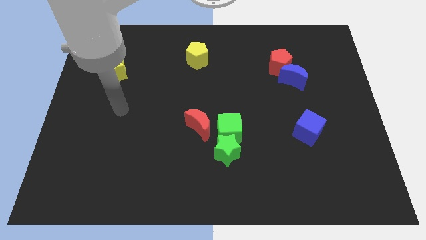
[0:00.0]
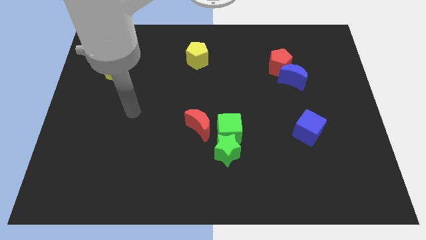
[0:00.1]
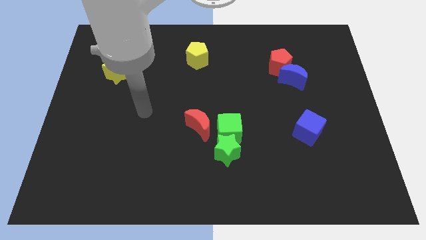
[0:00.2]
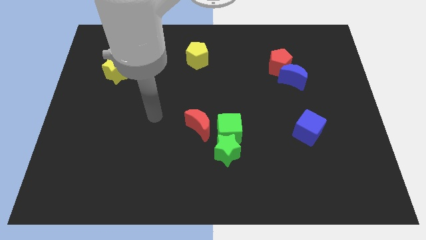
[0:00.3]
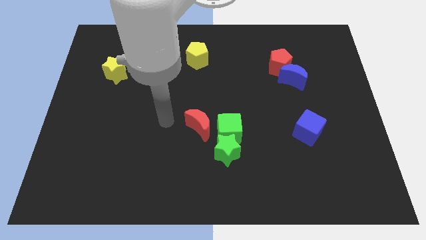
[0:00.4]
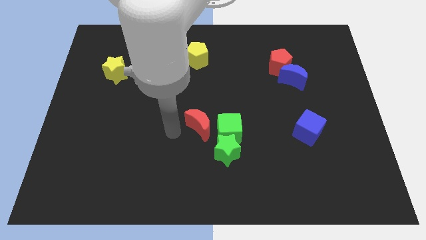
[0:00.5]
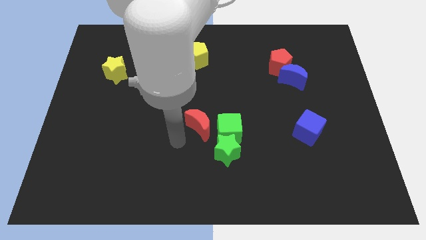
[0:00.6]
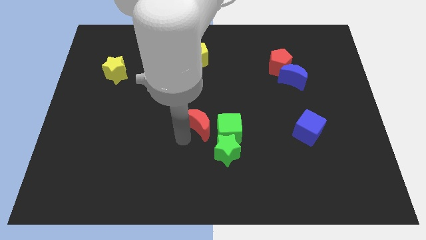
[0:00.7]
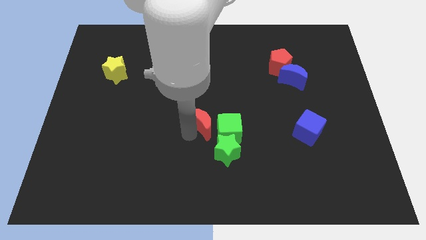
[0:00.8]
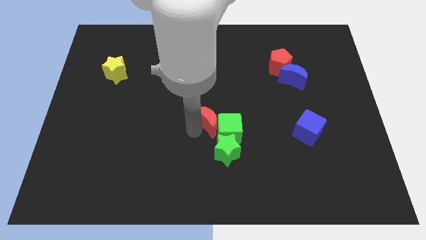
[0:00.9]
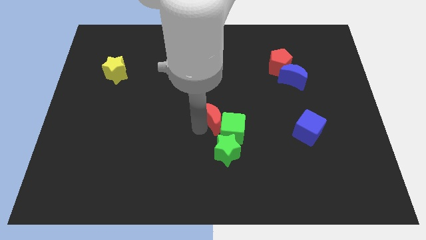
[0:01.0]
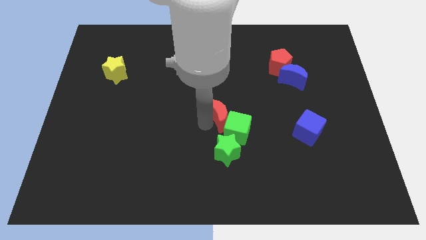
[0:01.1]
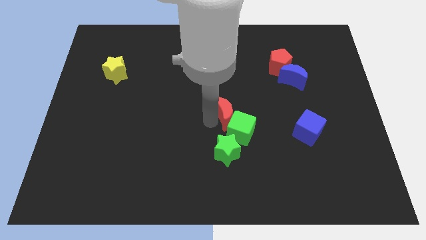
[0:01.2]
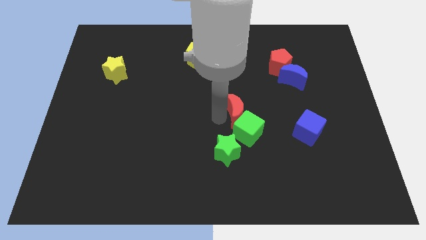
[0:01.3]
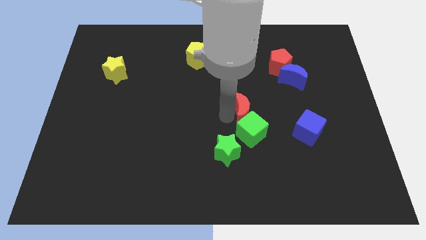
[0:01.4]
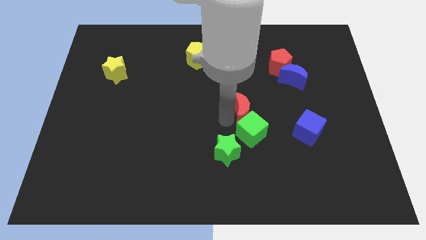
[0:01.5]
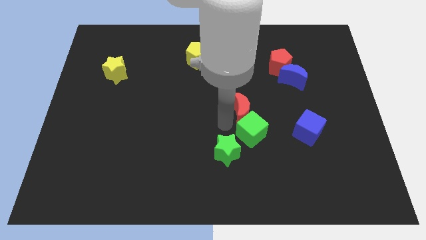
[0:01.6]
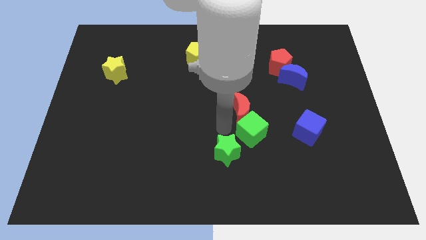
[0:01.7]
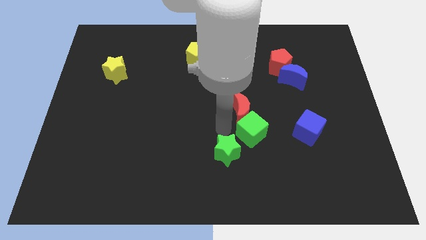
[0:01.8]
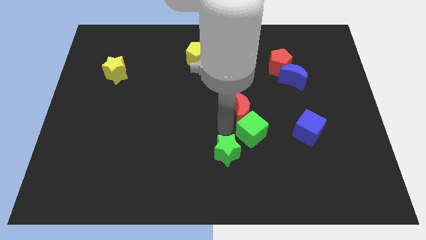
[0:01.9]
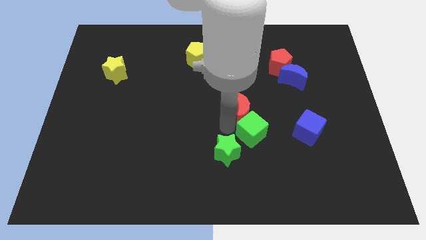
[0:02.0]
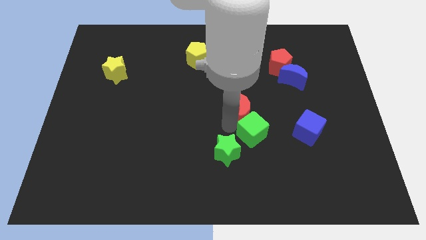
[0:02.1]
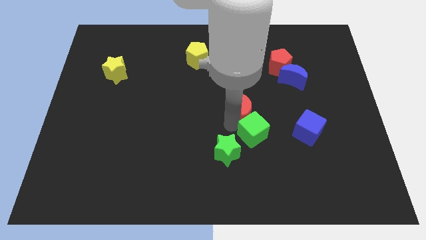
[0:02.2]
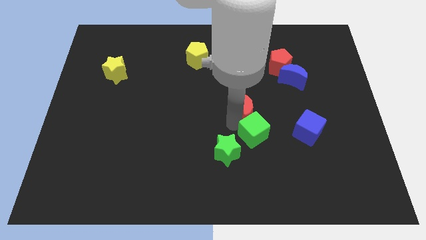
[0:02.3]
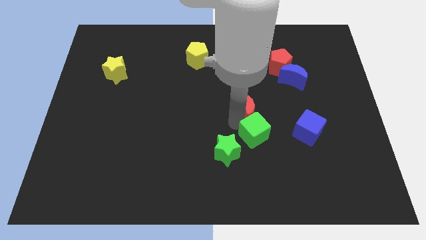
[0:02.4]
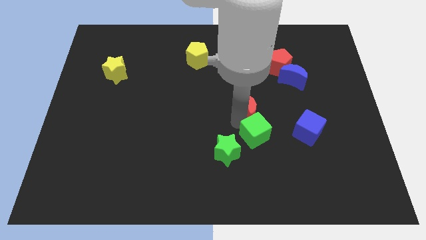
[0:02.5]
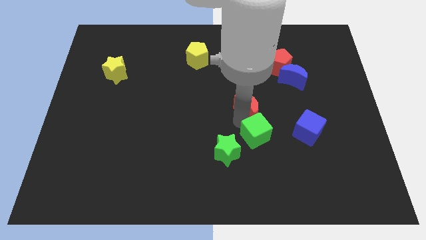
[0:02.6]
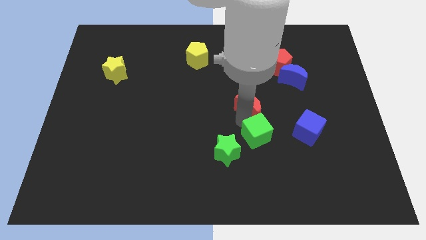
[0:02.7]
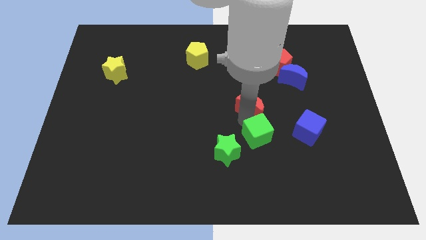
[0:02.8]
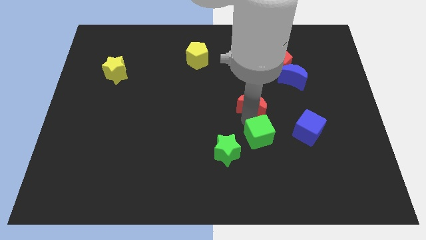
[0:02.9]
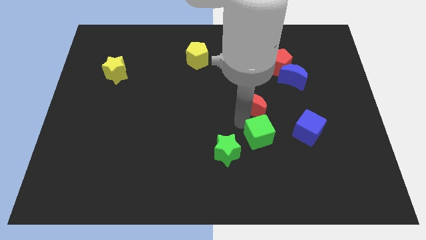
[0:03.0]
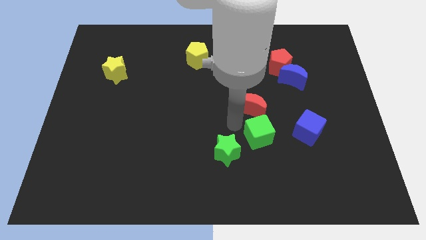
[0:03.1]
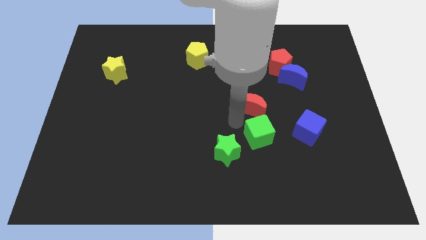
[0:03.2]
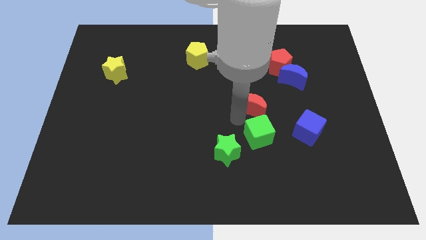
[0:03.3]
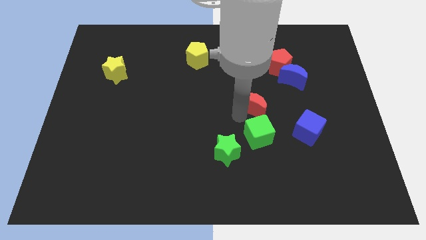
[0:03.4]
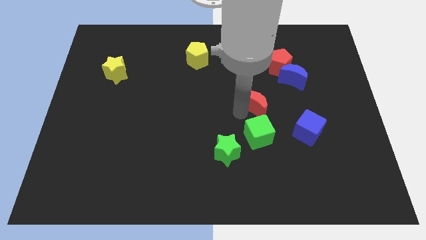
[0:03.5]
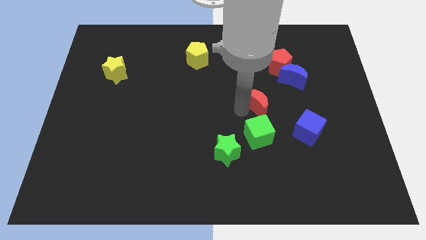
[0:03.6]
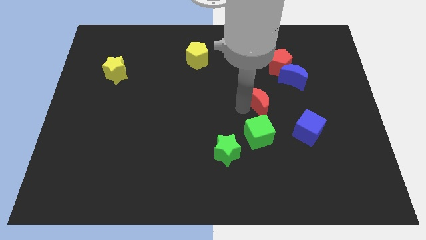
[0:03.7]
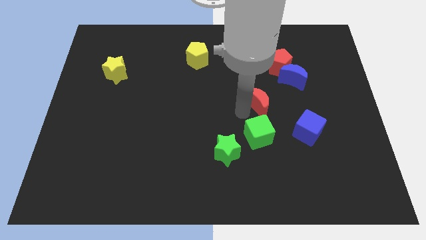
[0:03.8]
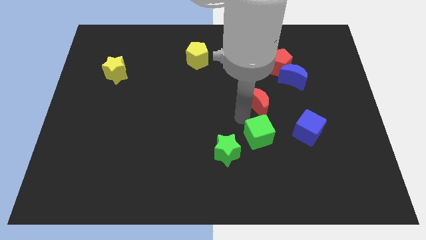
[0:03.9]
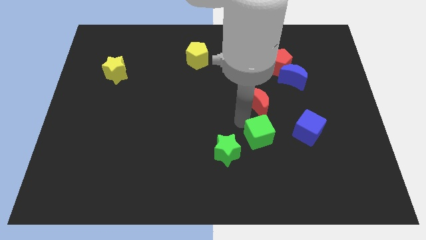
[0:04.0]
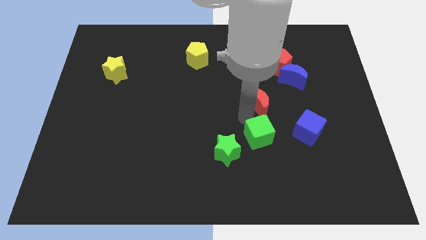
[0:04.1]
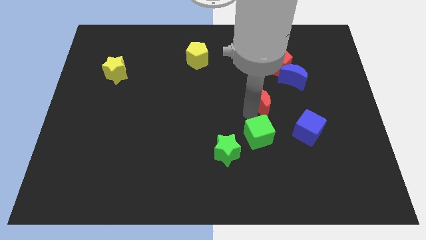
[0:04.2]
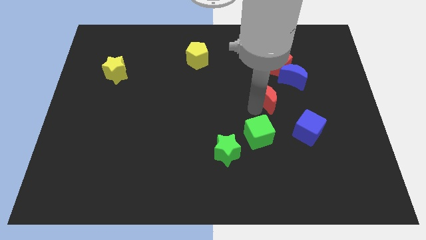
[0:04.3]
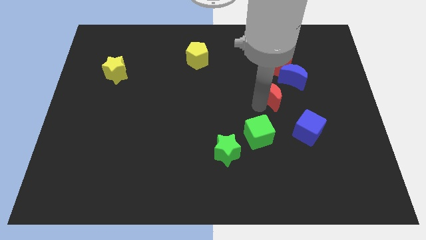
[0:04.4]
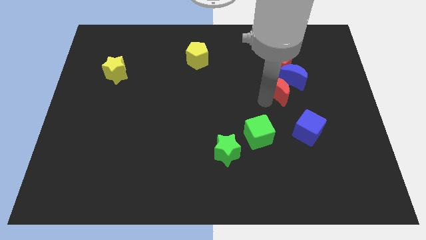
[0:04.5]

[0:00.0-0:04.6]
slide the red moon to the blue moon

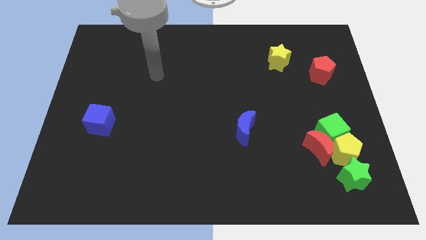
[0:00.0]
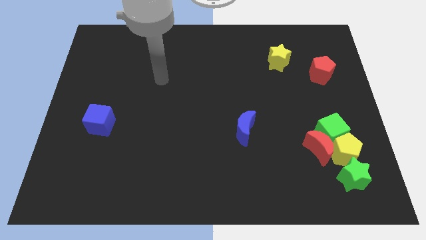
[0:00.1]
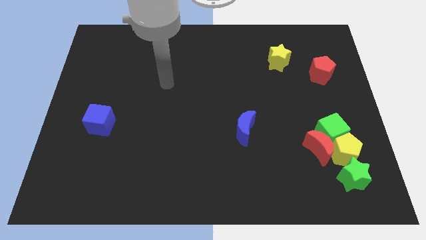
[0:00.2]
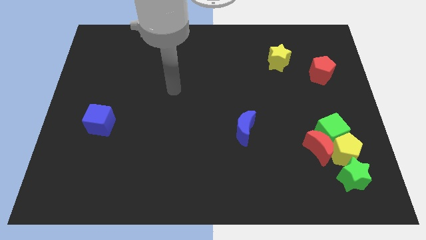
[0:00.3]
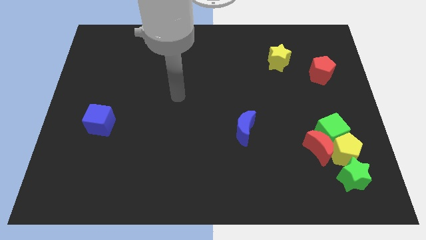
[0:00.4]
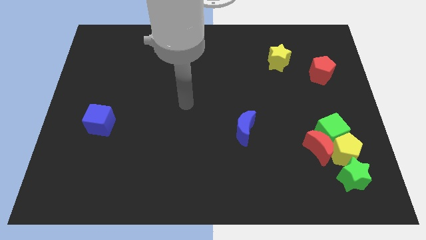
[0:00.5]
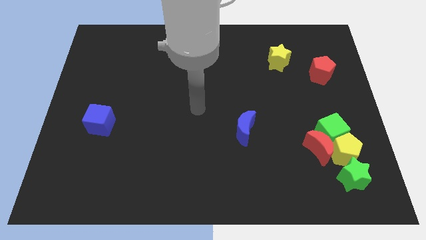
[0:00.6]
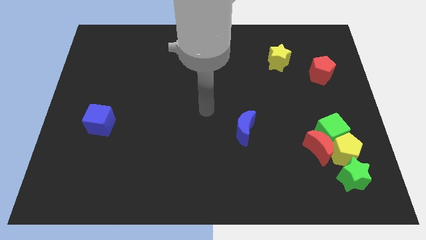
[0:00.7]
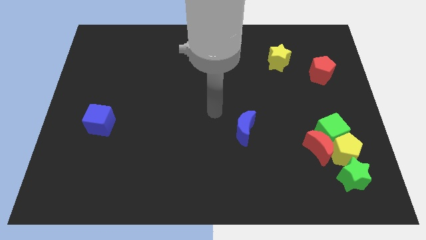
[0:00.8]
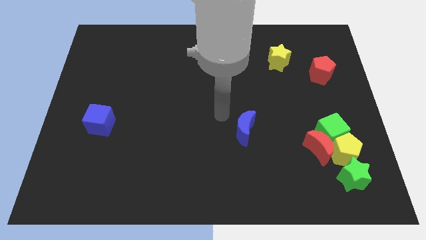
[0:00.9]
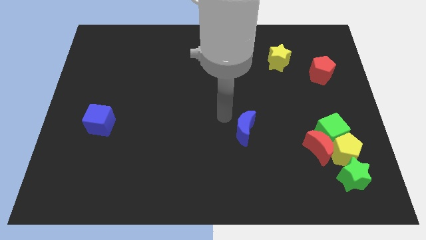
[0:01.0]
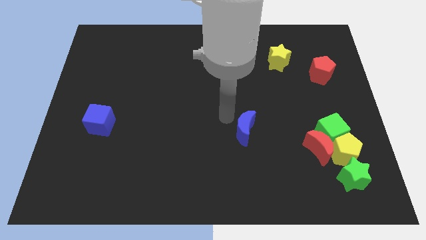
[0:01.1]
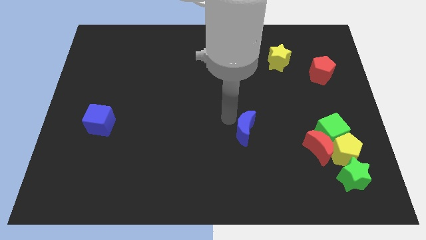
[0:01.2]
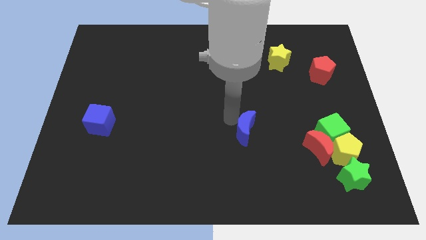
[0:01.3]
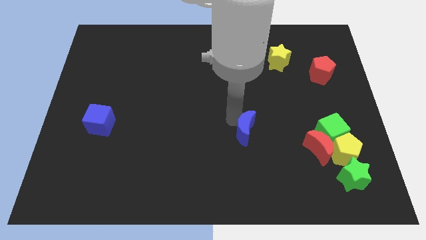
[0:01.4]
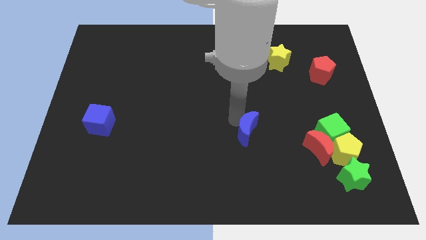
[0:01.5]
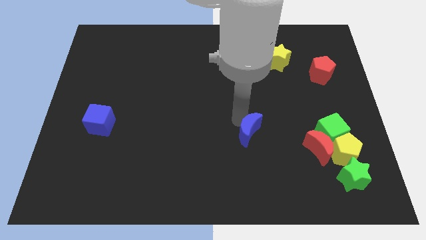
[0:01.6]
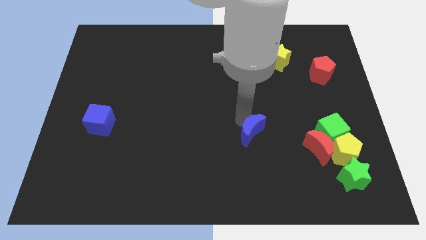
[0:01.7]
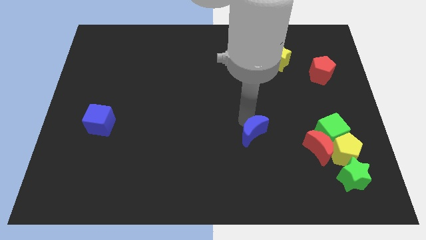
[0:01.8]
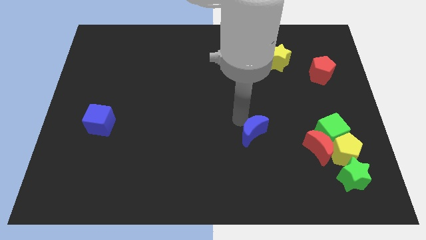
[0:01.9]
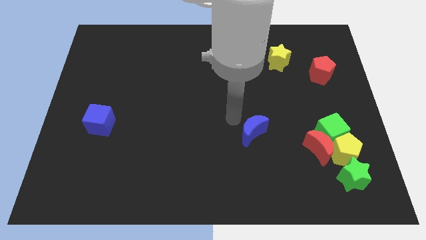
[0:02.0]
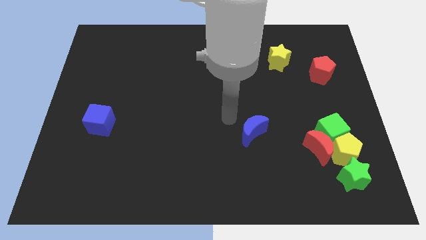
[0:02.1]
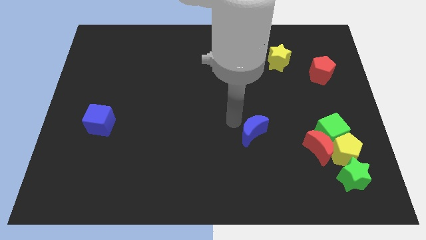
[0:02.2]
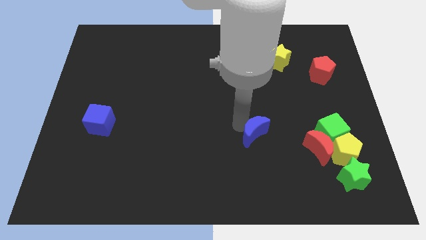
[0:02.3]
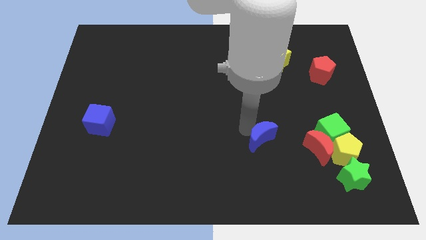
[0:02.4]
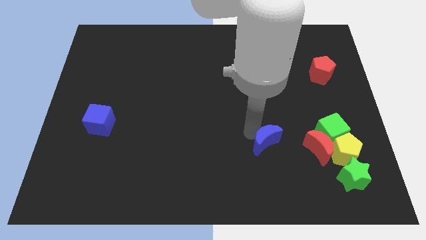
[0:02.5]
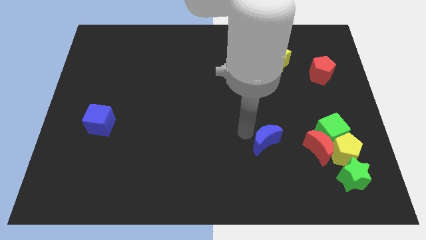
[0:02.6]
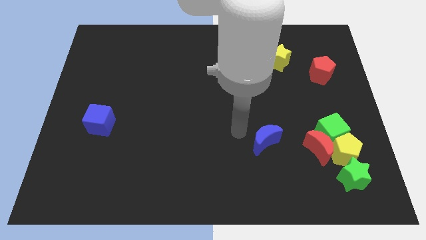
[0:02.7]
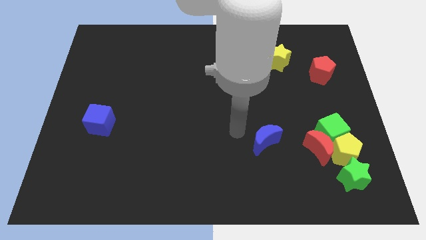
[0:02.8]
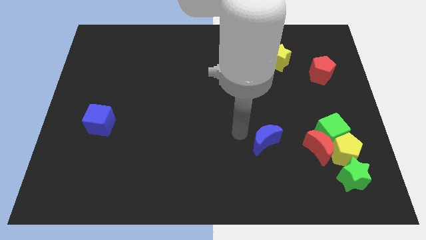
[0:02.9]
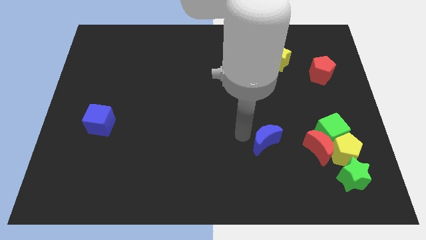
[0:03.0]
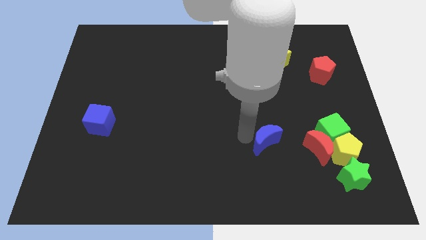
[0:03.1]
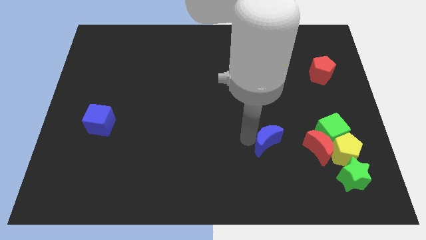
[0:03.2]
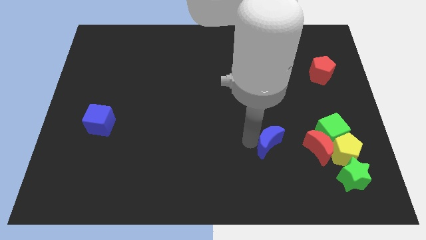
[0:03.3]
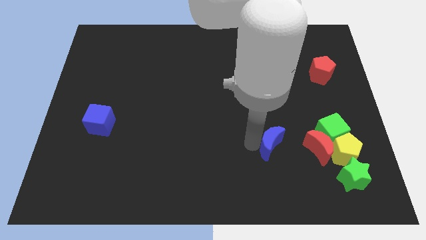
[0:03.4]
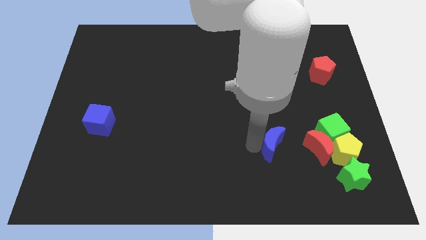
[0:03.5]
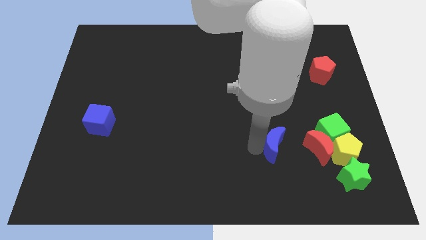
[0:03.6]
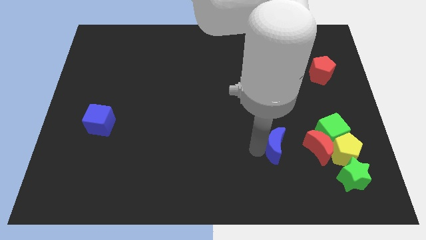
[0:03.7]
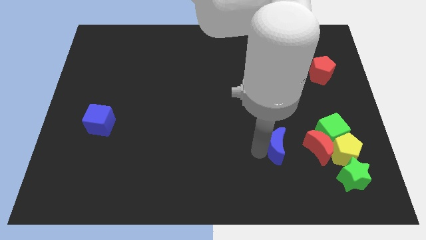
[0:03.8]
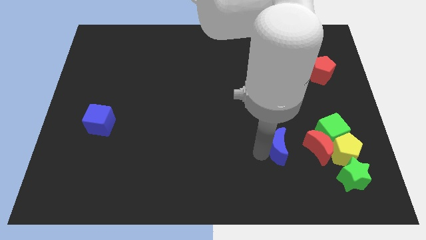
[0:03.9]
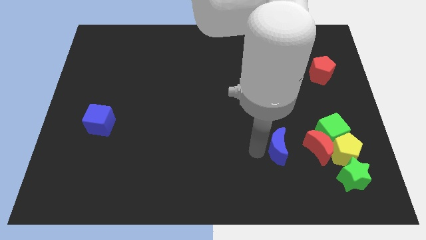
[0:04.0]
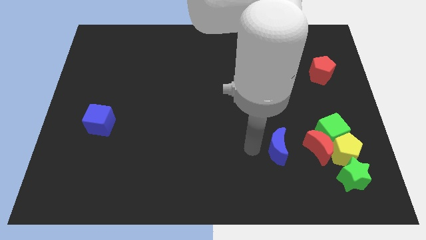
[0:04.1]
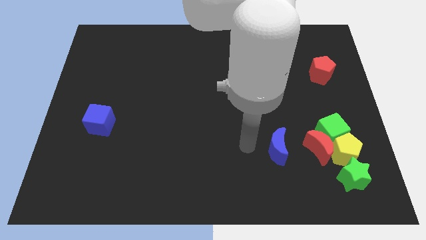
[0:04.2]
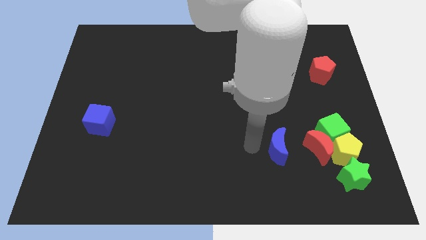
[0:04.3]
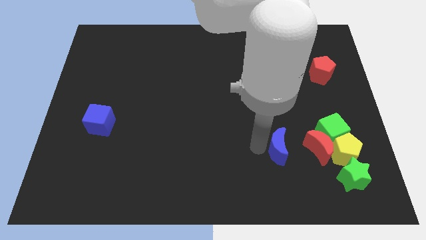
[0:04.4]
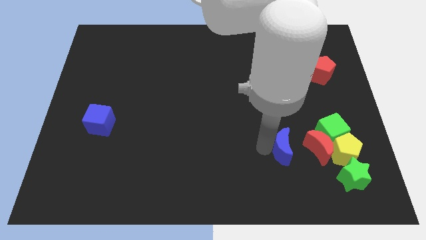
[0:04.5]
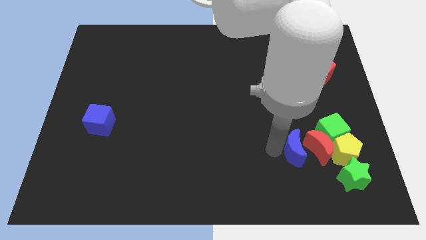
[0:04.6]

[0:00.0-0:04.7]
slide the blue moon close to the red moon
